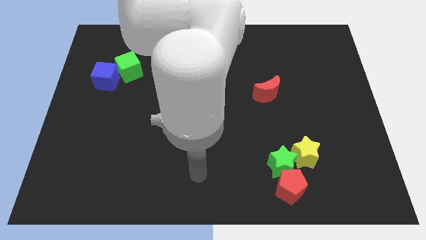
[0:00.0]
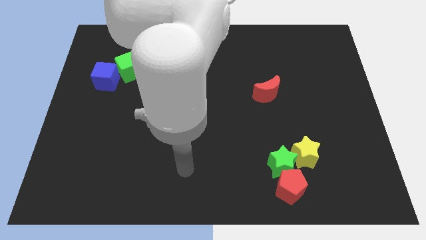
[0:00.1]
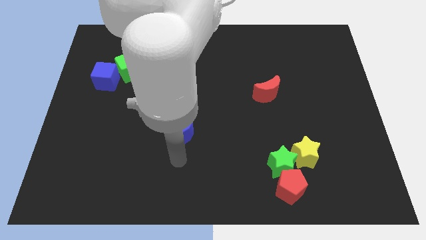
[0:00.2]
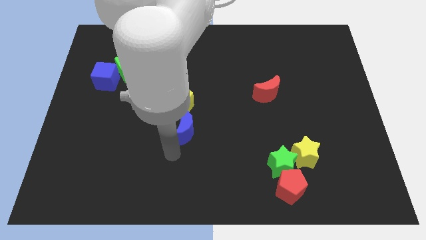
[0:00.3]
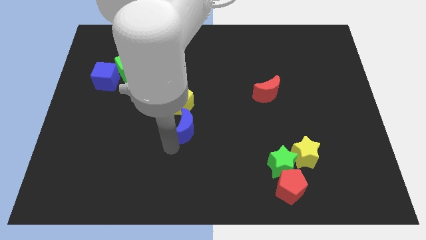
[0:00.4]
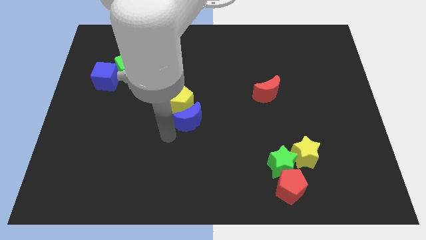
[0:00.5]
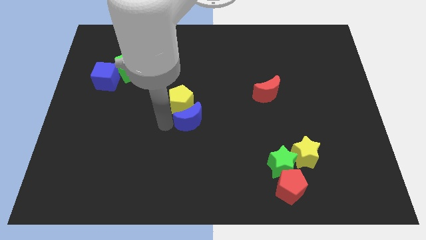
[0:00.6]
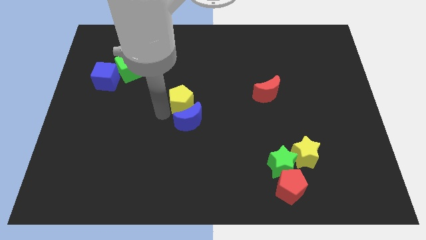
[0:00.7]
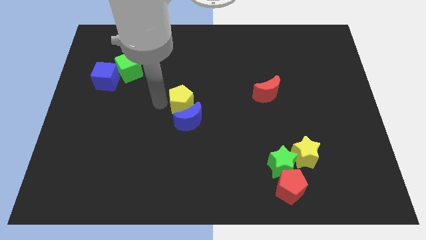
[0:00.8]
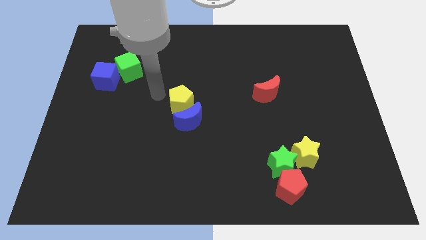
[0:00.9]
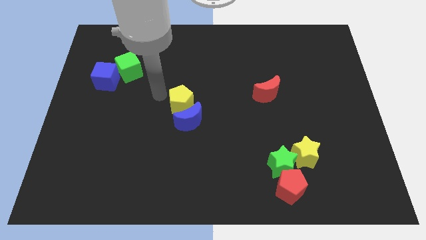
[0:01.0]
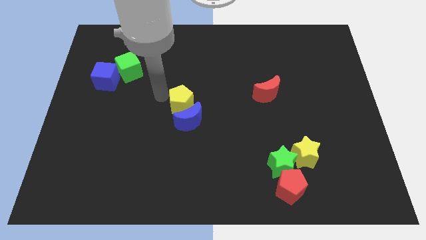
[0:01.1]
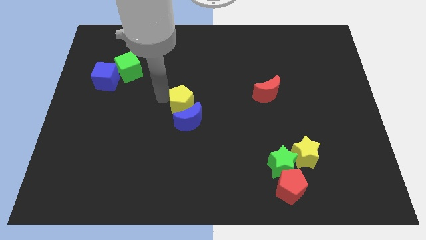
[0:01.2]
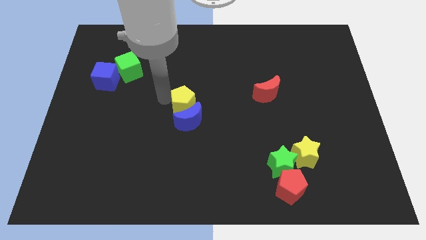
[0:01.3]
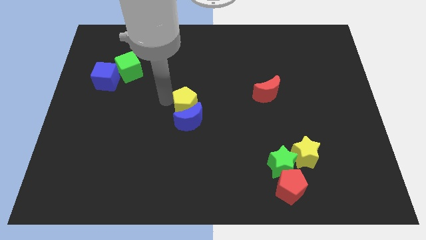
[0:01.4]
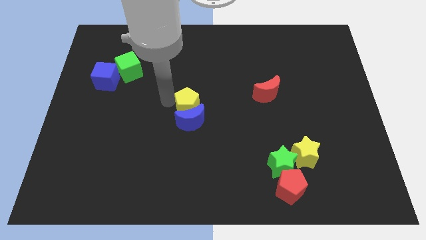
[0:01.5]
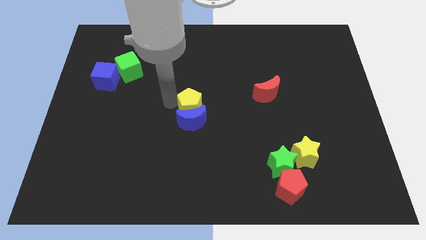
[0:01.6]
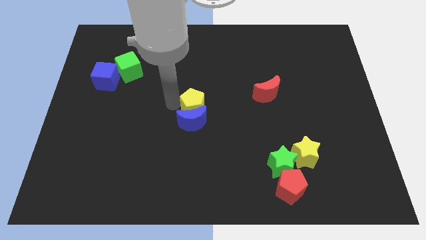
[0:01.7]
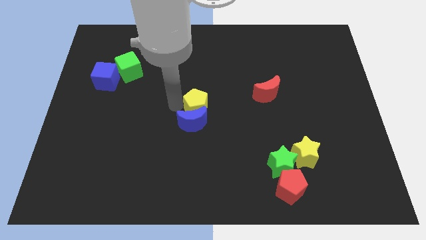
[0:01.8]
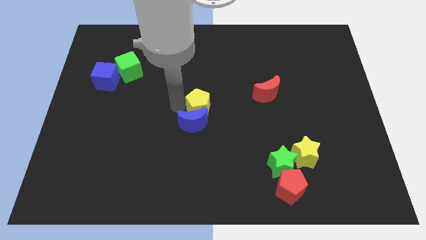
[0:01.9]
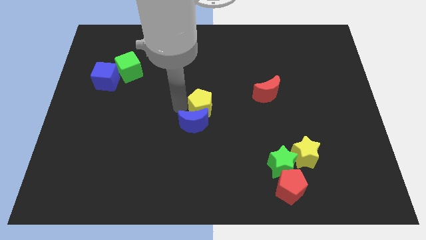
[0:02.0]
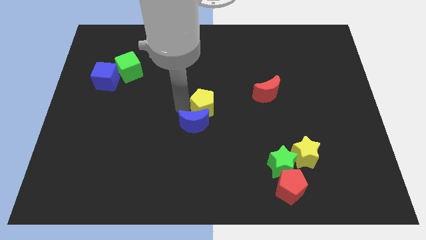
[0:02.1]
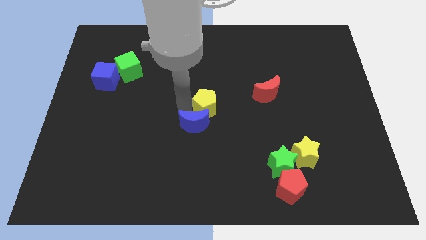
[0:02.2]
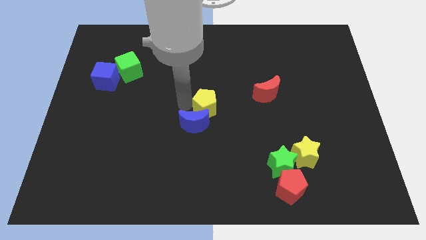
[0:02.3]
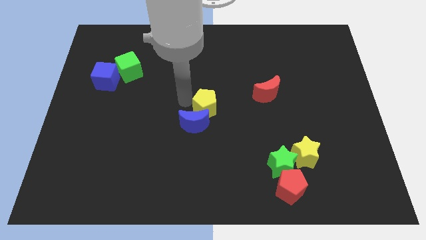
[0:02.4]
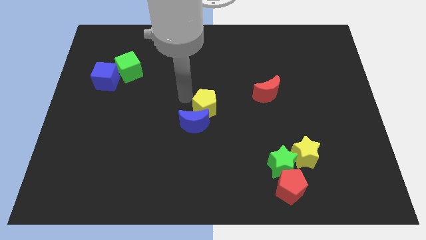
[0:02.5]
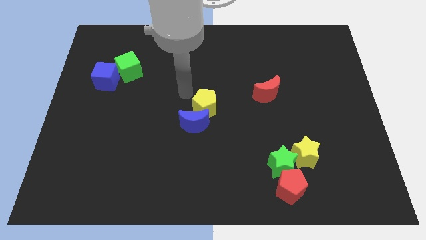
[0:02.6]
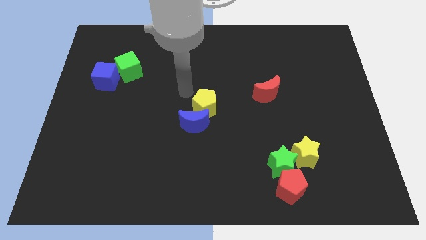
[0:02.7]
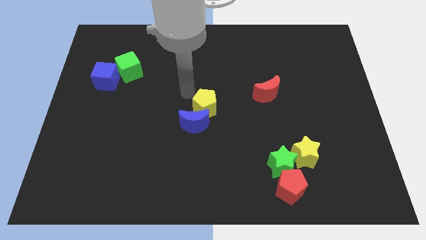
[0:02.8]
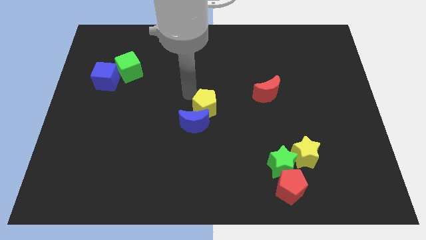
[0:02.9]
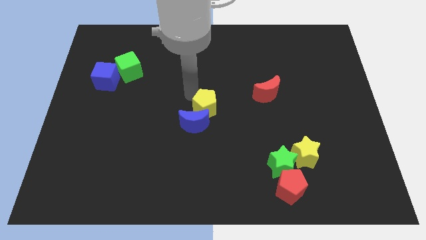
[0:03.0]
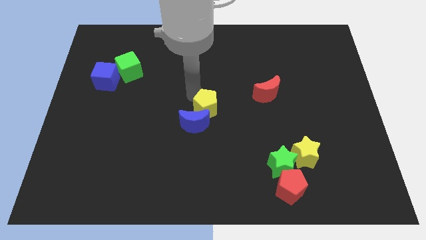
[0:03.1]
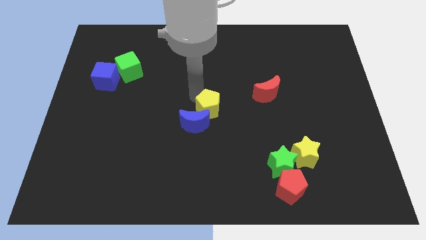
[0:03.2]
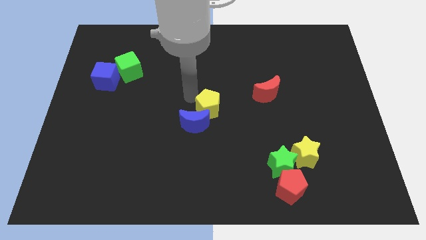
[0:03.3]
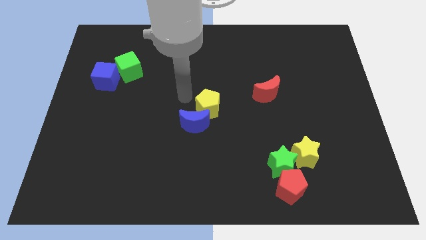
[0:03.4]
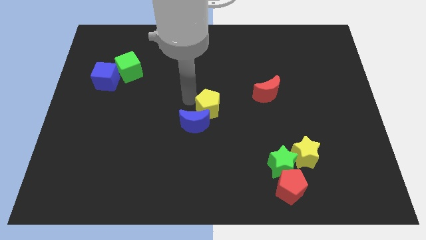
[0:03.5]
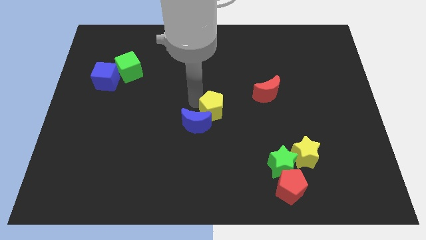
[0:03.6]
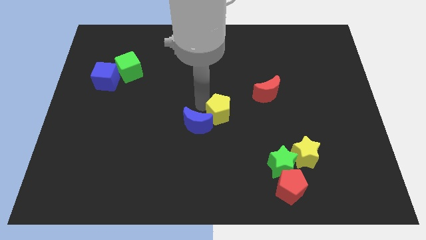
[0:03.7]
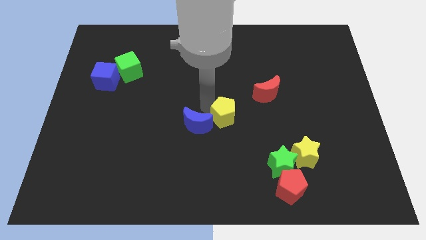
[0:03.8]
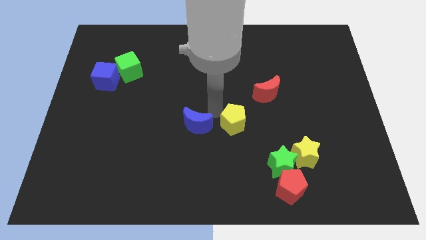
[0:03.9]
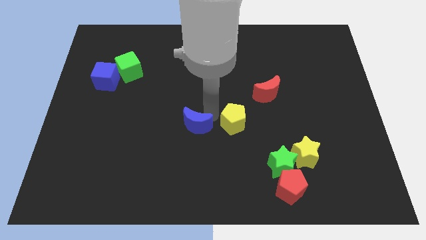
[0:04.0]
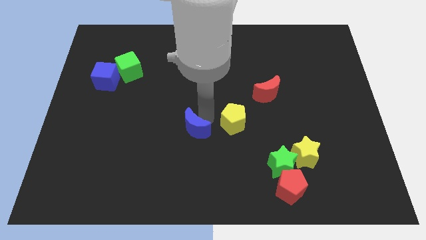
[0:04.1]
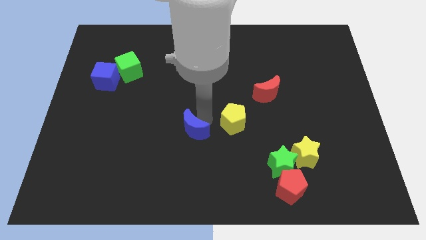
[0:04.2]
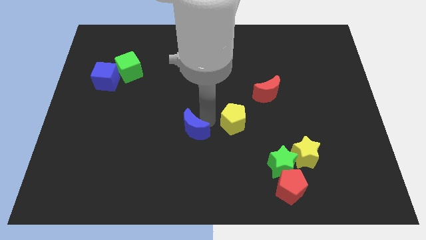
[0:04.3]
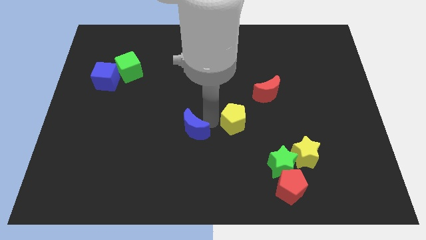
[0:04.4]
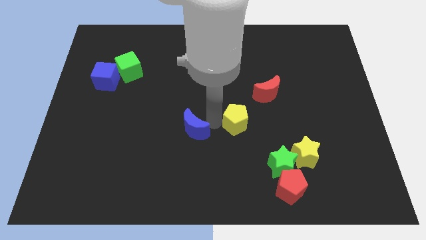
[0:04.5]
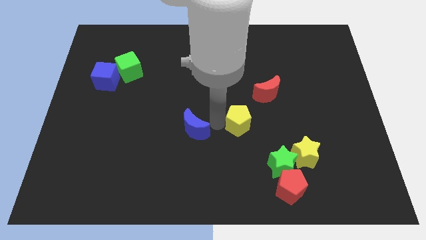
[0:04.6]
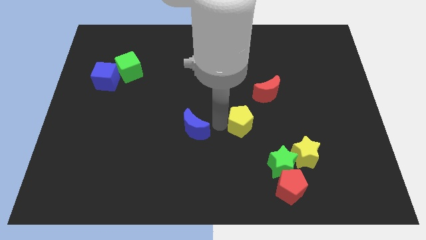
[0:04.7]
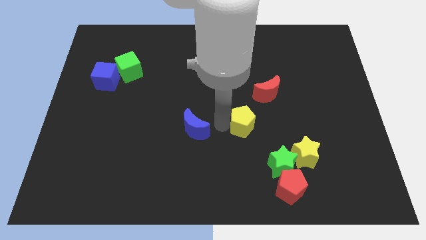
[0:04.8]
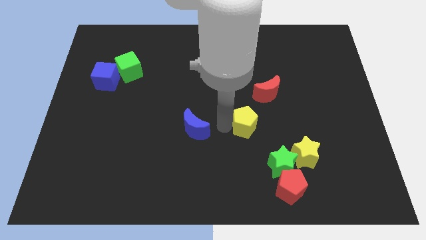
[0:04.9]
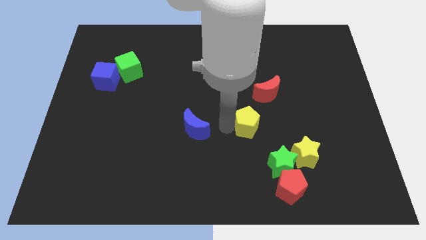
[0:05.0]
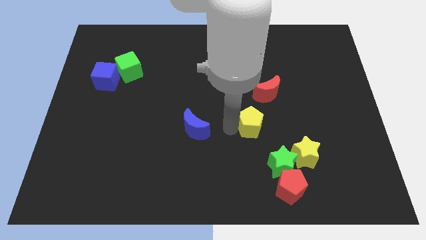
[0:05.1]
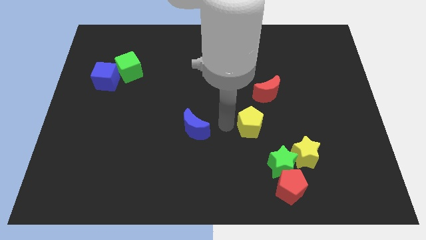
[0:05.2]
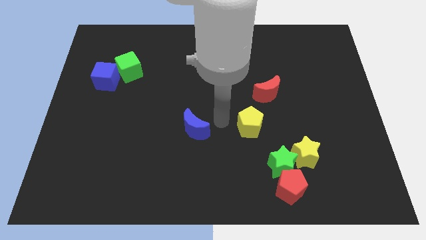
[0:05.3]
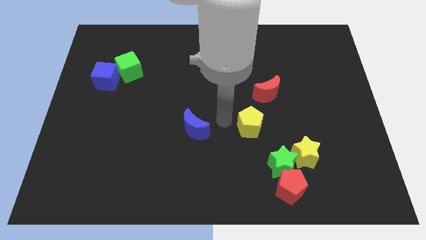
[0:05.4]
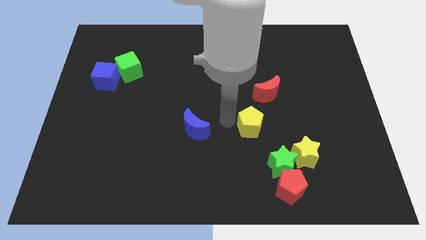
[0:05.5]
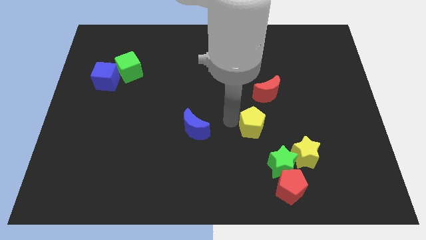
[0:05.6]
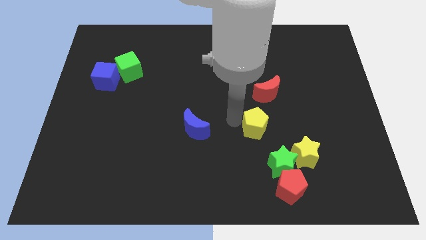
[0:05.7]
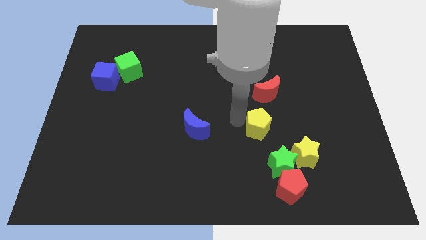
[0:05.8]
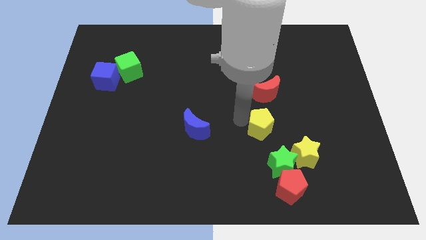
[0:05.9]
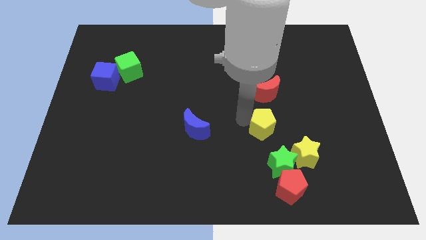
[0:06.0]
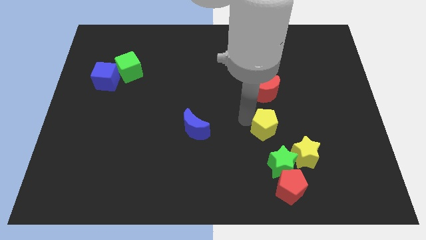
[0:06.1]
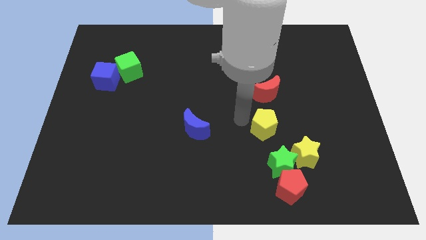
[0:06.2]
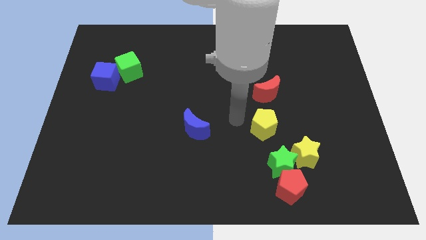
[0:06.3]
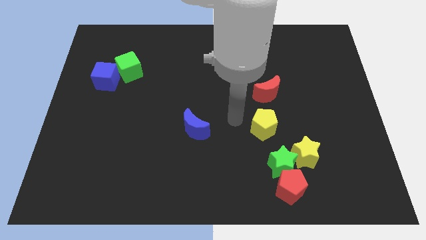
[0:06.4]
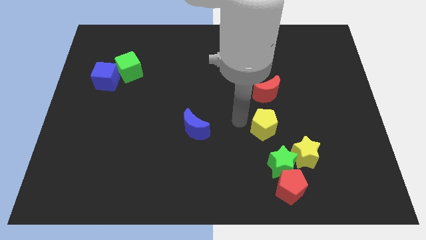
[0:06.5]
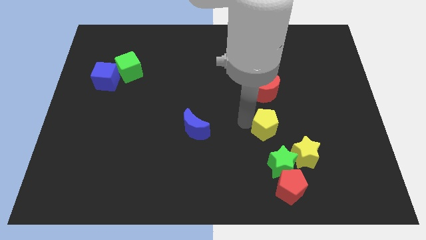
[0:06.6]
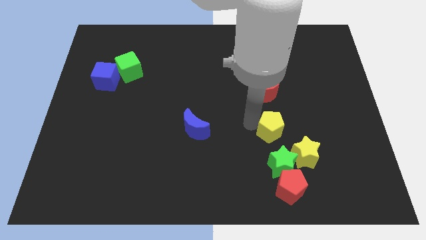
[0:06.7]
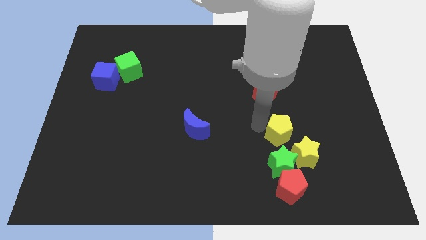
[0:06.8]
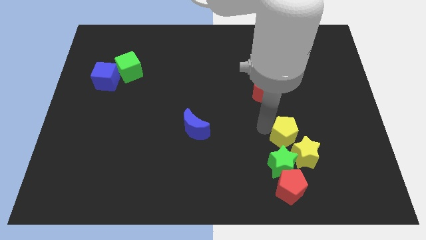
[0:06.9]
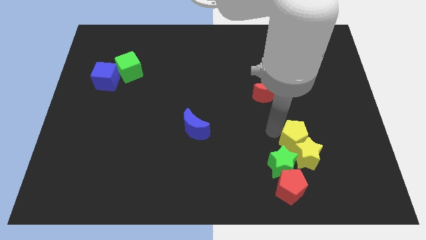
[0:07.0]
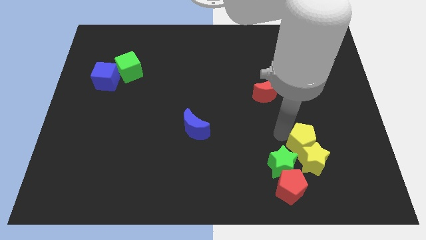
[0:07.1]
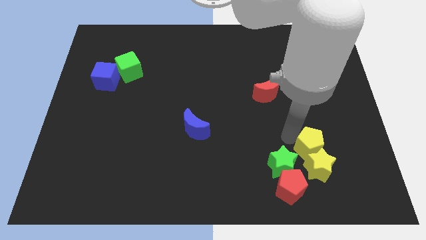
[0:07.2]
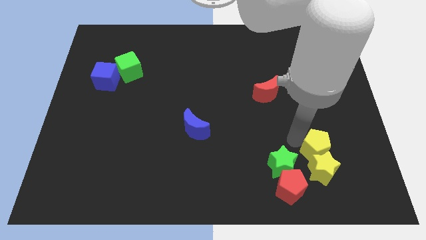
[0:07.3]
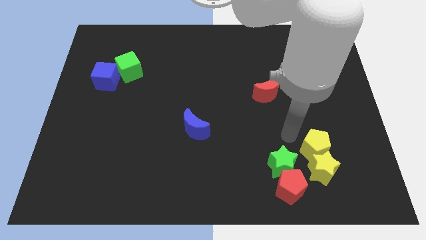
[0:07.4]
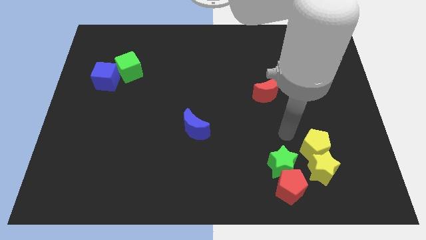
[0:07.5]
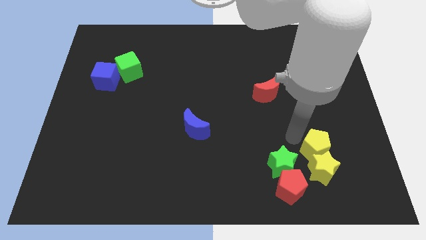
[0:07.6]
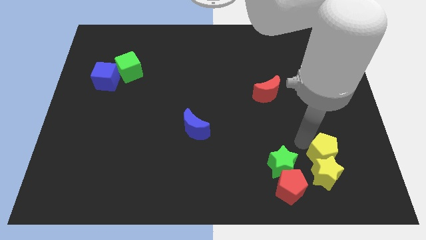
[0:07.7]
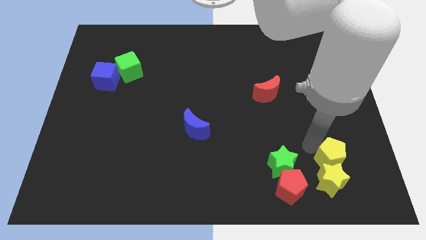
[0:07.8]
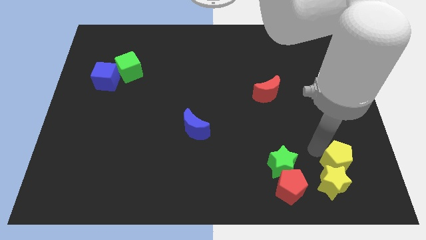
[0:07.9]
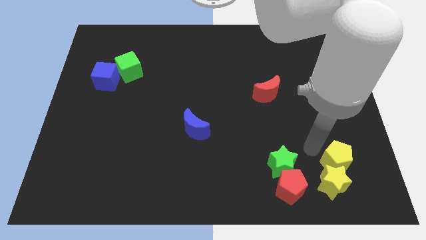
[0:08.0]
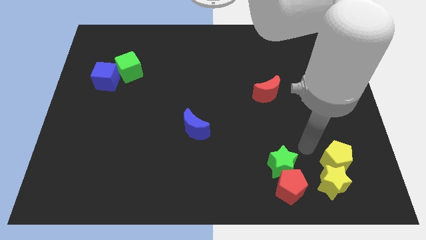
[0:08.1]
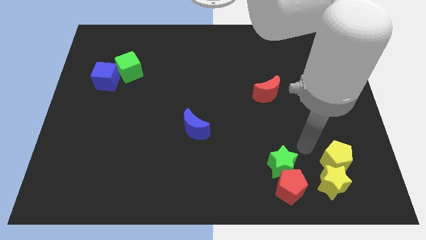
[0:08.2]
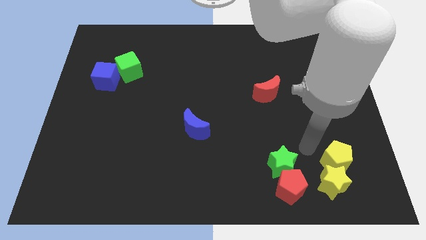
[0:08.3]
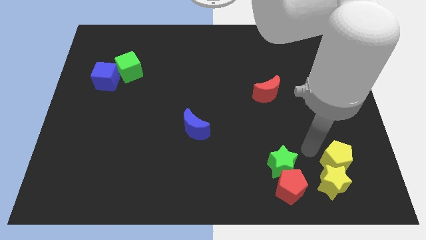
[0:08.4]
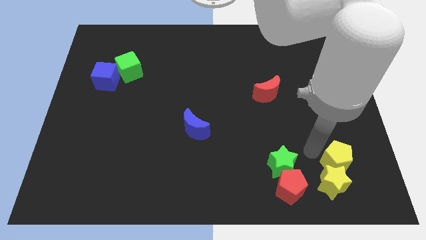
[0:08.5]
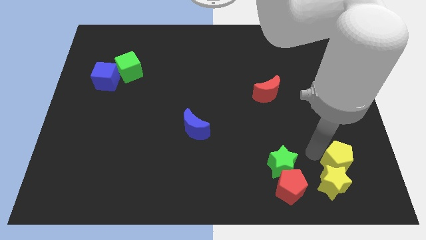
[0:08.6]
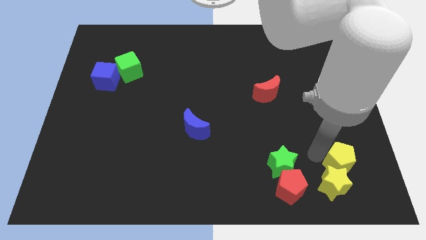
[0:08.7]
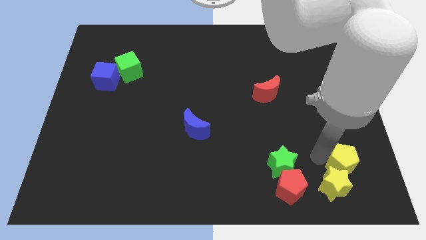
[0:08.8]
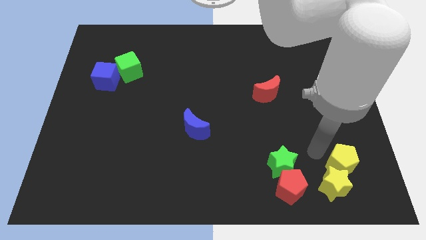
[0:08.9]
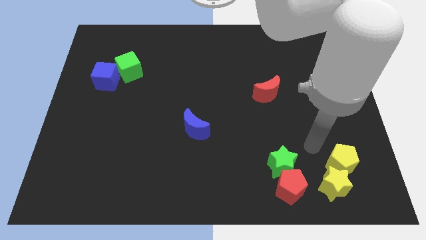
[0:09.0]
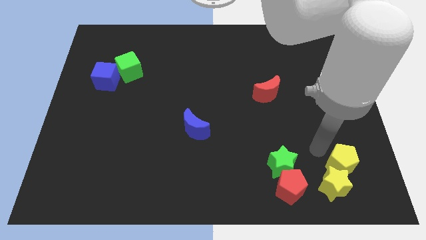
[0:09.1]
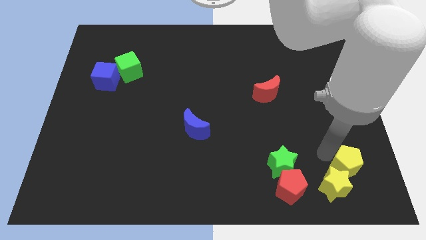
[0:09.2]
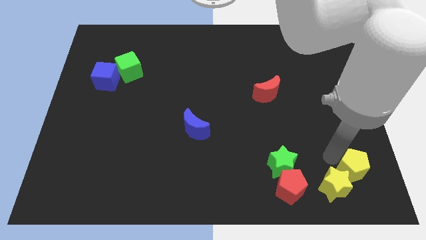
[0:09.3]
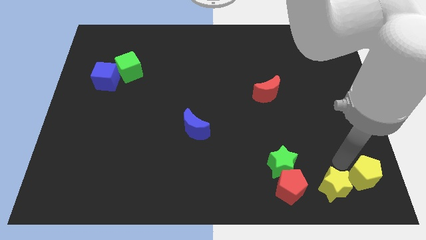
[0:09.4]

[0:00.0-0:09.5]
put the yellow pentagon to the lower right corner
